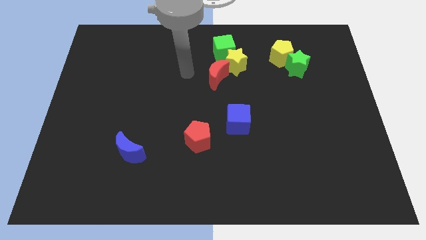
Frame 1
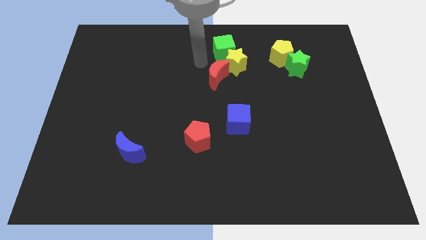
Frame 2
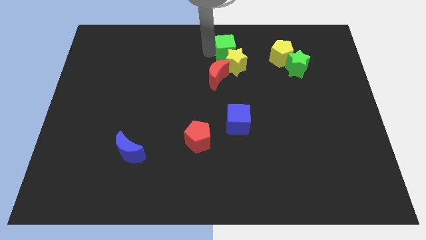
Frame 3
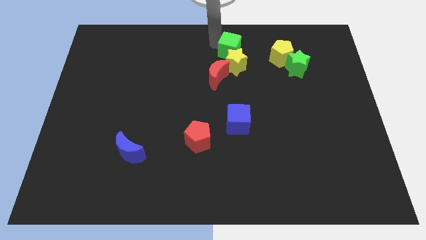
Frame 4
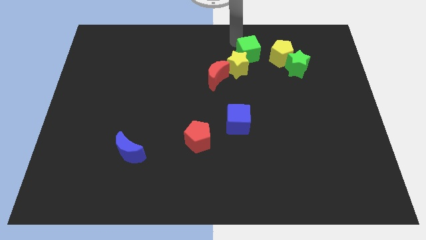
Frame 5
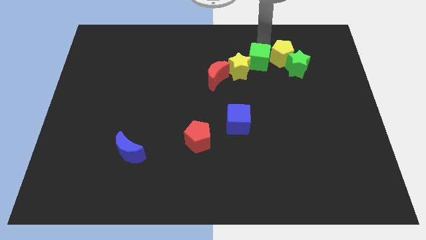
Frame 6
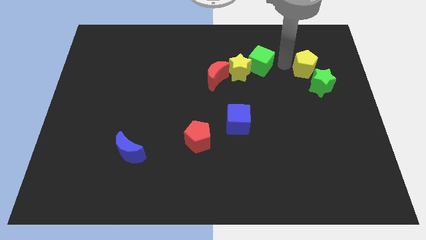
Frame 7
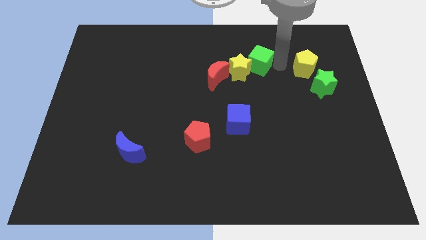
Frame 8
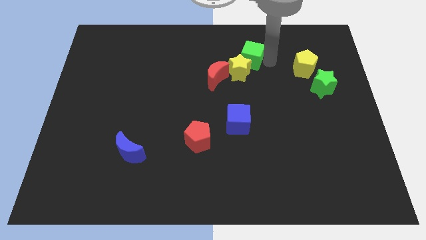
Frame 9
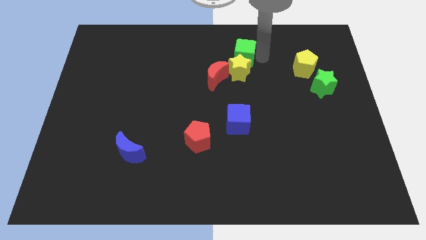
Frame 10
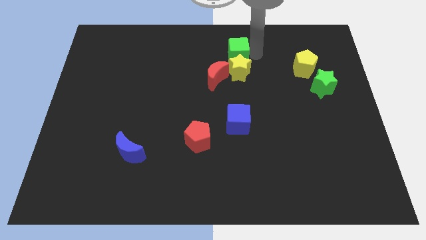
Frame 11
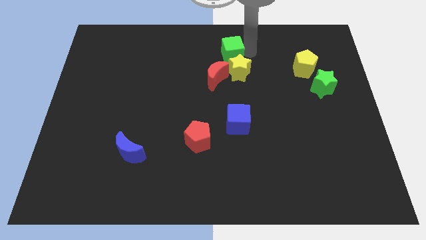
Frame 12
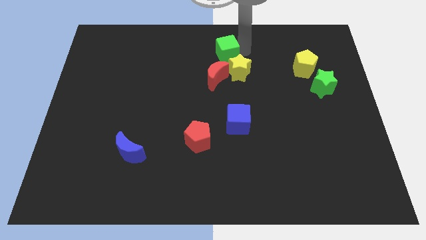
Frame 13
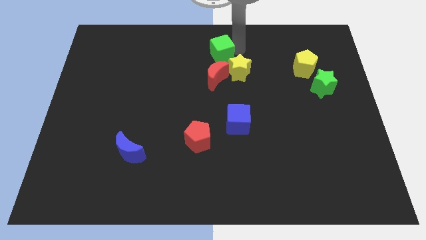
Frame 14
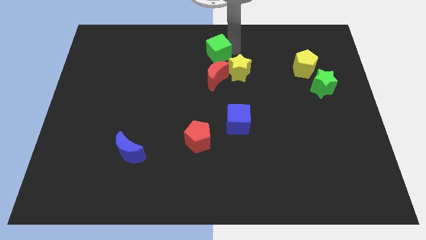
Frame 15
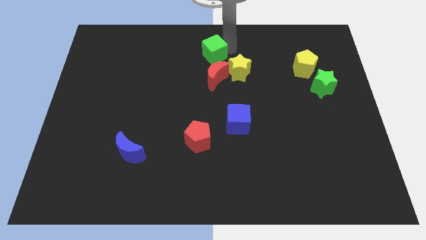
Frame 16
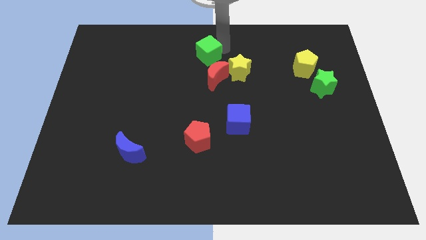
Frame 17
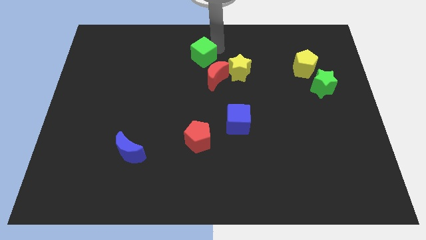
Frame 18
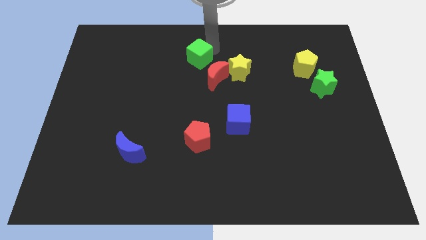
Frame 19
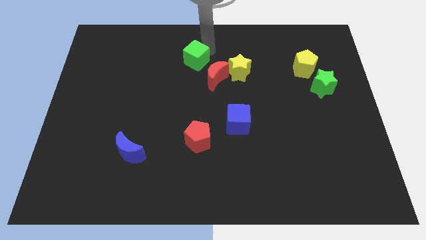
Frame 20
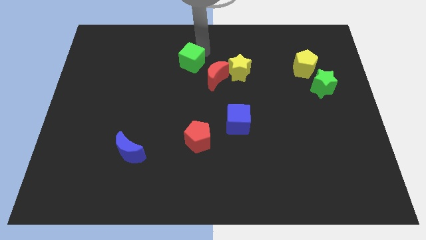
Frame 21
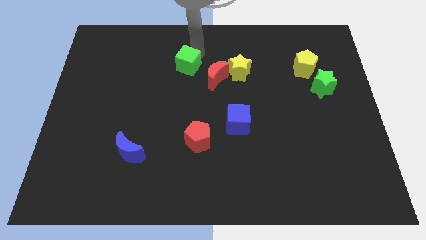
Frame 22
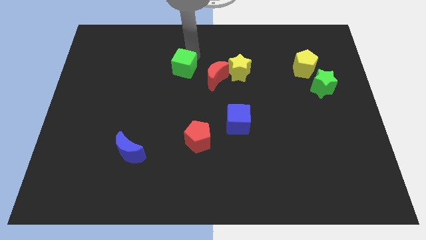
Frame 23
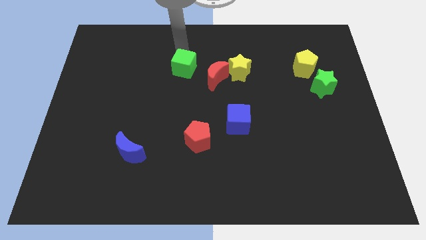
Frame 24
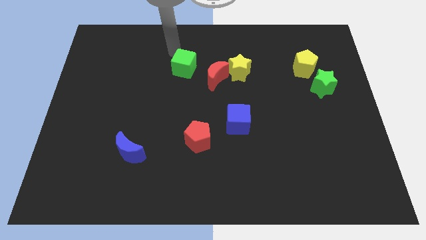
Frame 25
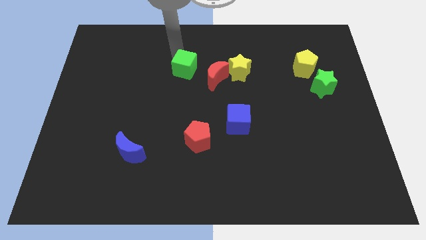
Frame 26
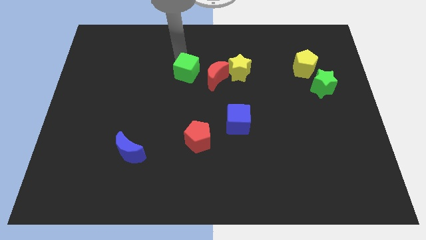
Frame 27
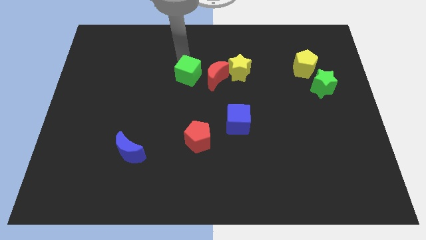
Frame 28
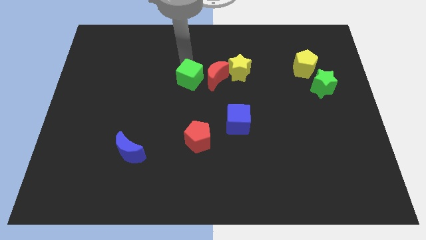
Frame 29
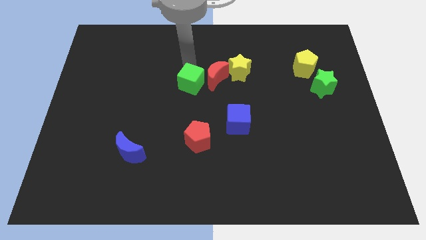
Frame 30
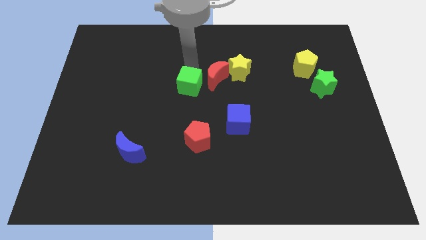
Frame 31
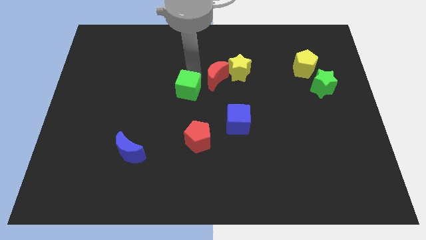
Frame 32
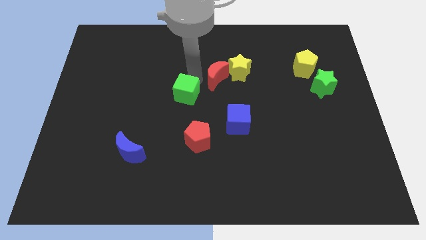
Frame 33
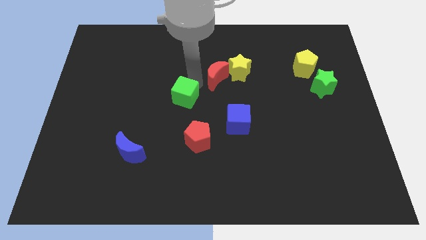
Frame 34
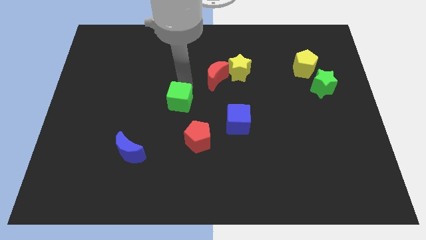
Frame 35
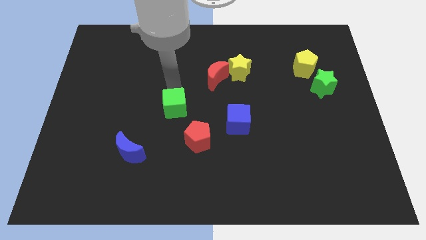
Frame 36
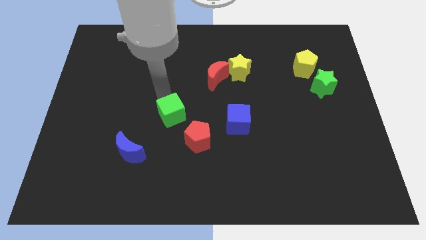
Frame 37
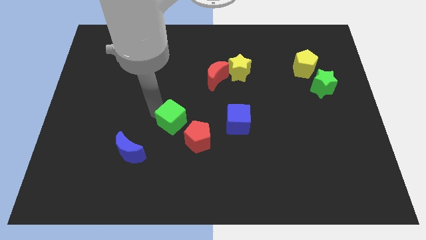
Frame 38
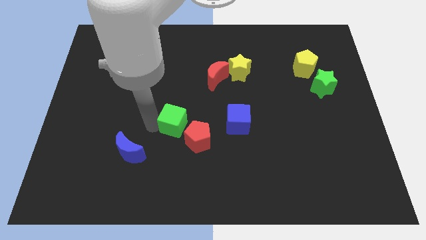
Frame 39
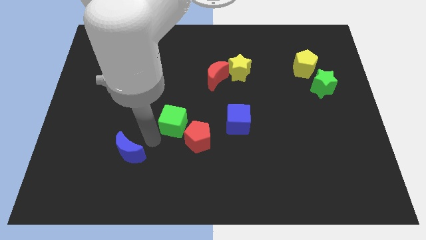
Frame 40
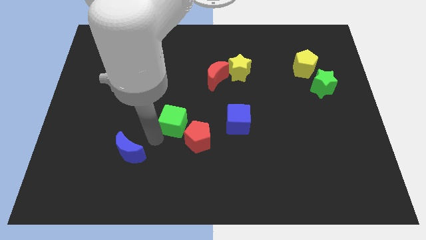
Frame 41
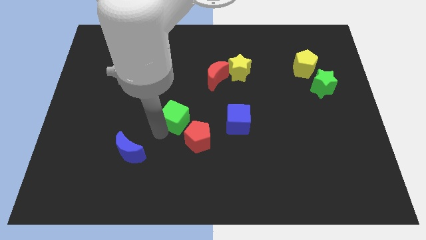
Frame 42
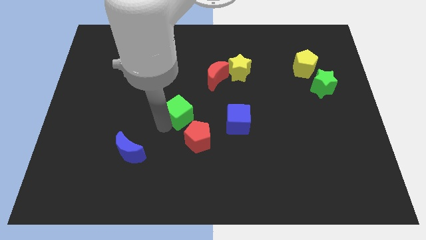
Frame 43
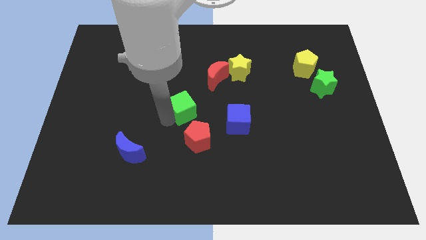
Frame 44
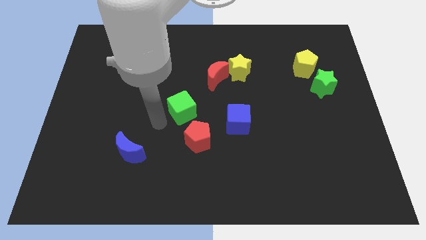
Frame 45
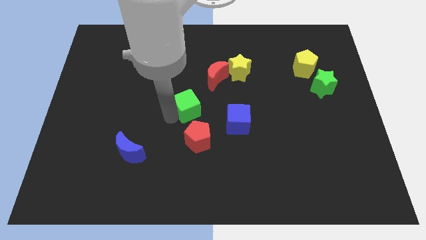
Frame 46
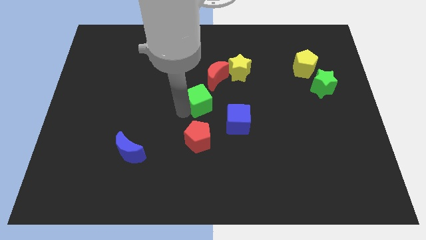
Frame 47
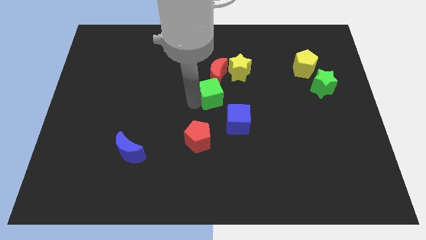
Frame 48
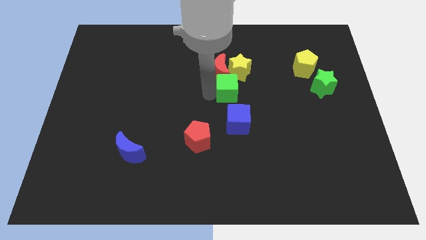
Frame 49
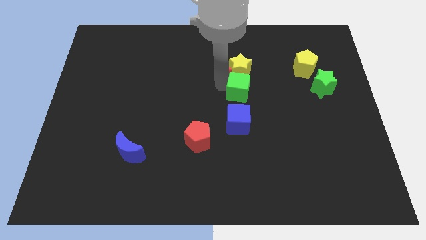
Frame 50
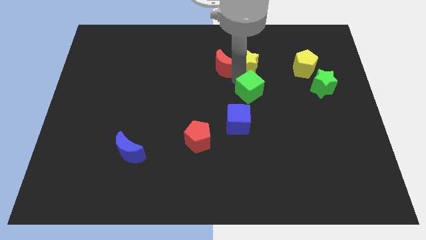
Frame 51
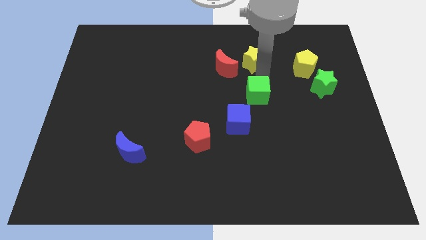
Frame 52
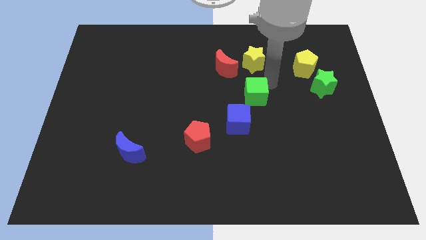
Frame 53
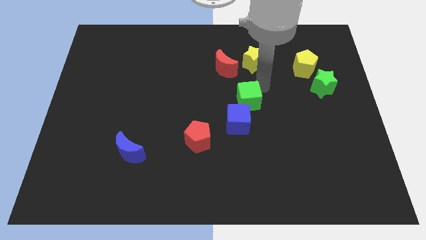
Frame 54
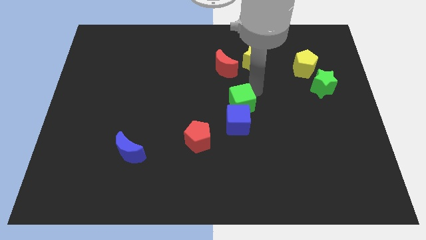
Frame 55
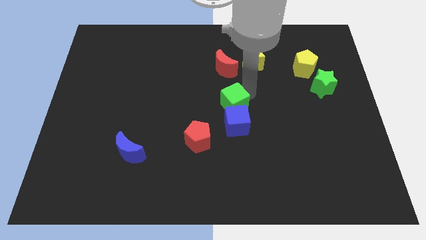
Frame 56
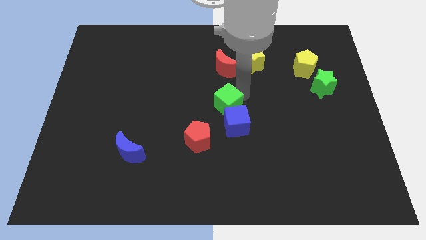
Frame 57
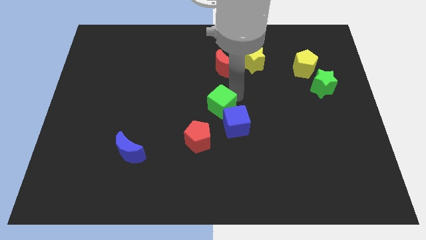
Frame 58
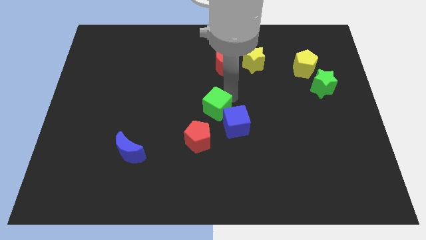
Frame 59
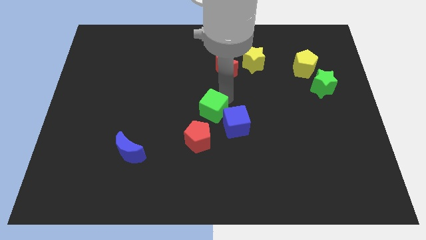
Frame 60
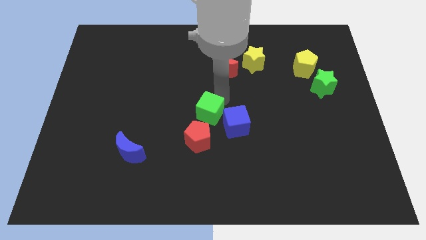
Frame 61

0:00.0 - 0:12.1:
move the green cube downwards

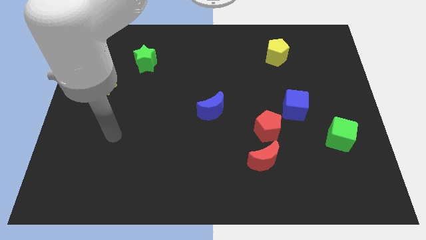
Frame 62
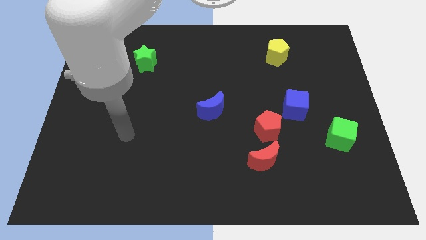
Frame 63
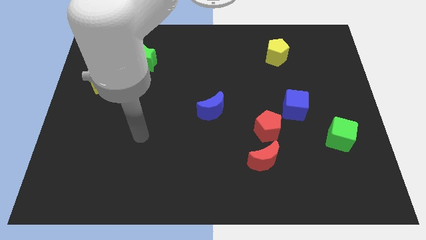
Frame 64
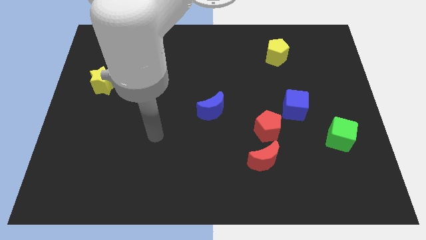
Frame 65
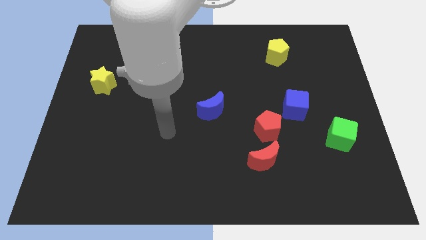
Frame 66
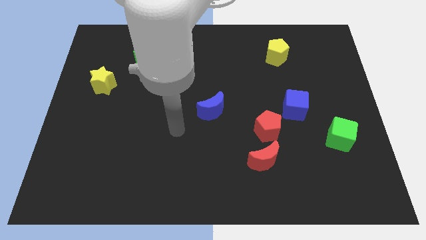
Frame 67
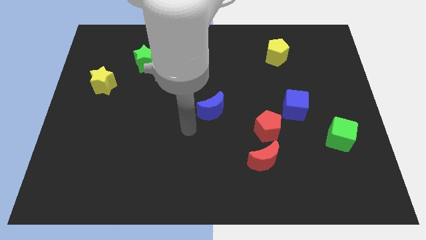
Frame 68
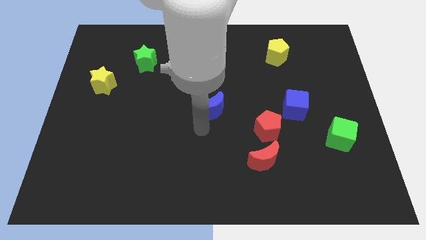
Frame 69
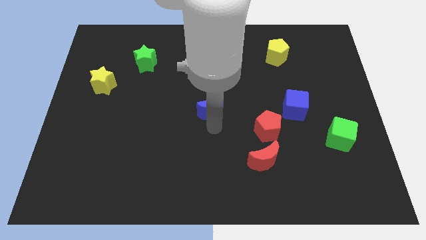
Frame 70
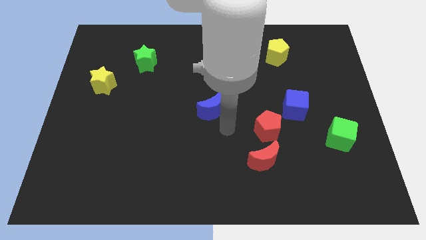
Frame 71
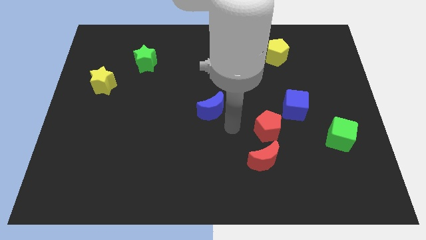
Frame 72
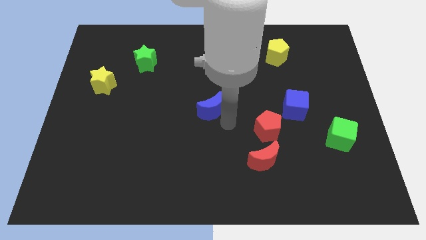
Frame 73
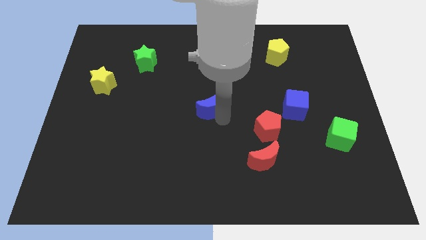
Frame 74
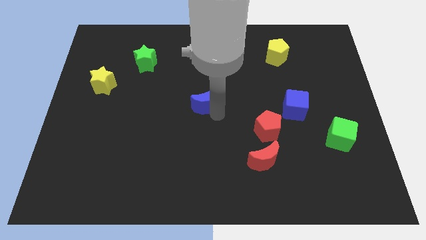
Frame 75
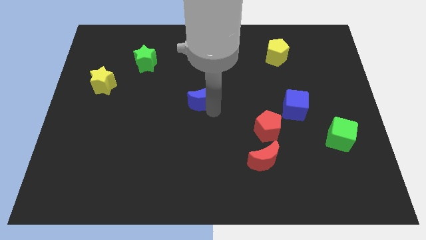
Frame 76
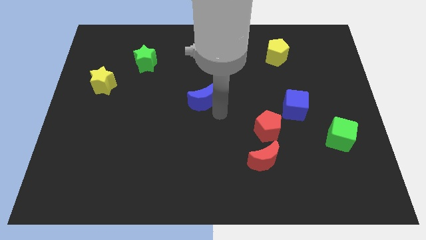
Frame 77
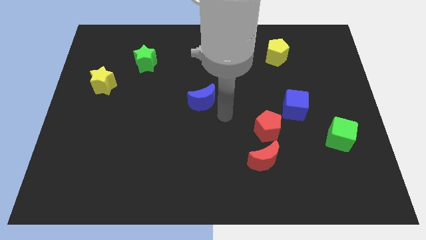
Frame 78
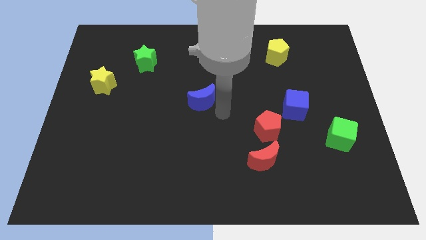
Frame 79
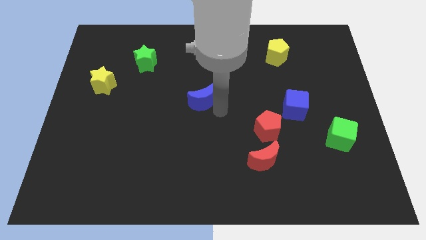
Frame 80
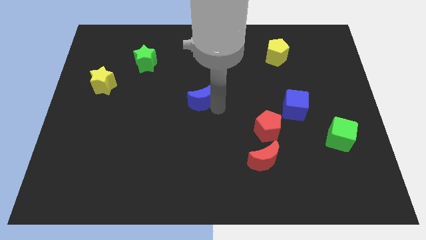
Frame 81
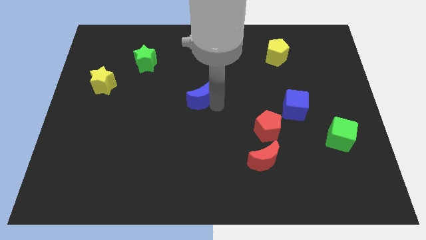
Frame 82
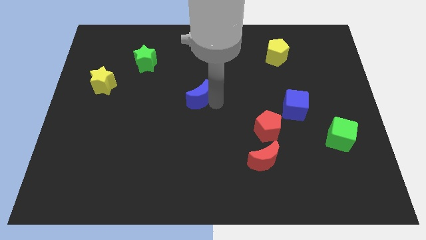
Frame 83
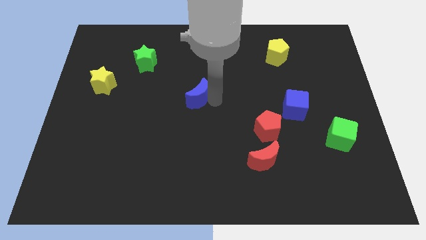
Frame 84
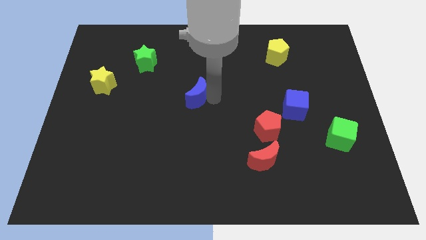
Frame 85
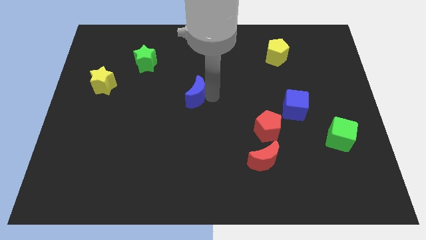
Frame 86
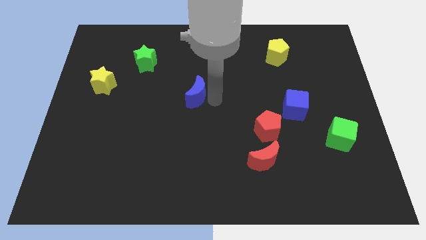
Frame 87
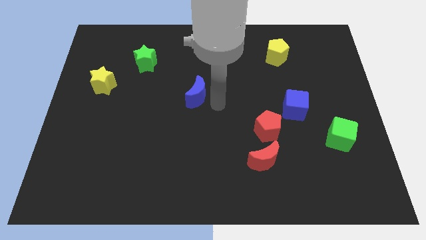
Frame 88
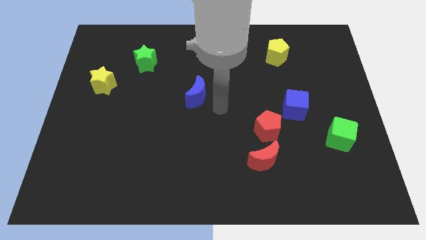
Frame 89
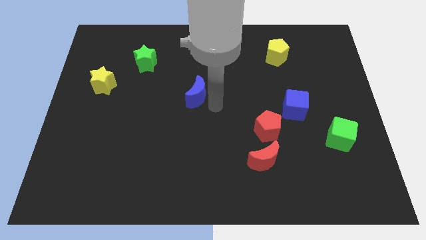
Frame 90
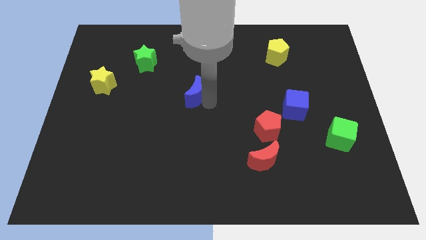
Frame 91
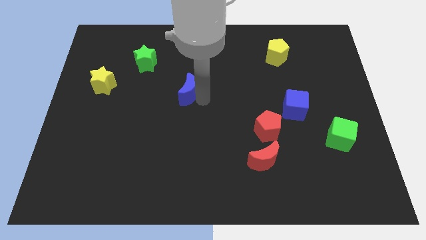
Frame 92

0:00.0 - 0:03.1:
slide the blue moon a little upwards and to the left
